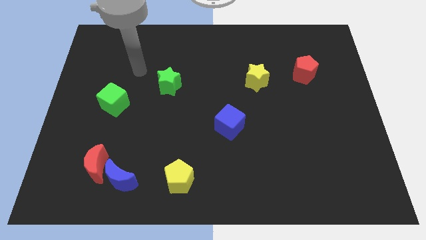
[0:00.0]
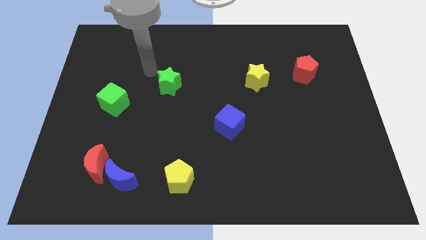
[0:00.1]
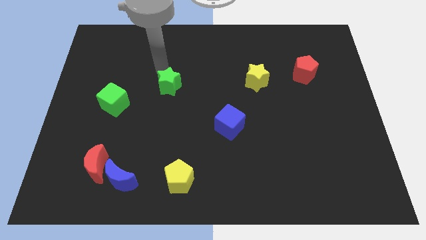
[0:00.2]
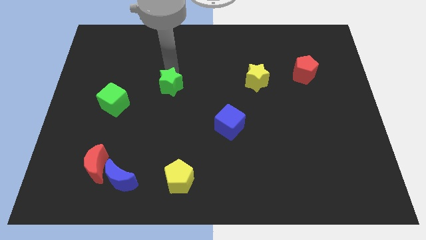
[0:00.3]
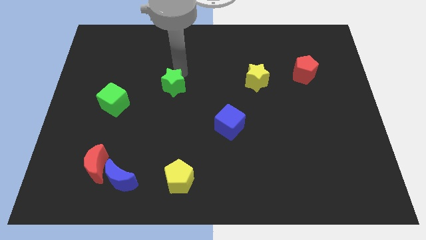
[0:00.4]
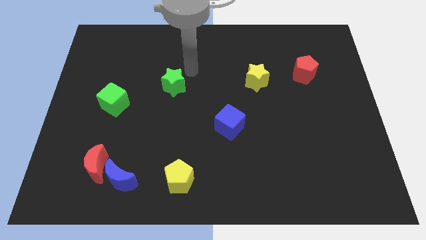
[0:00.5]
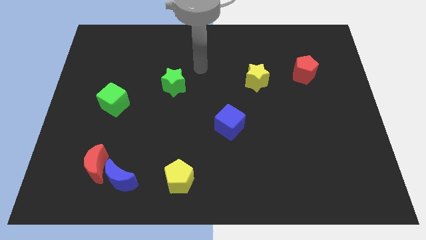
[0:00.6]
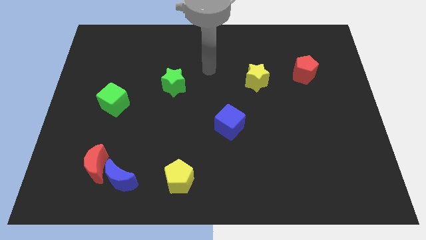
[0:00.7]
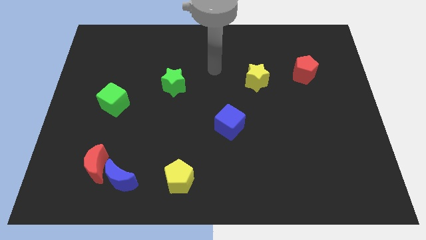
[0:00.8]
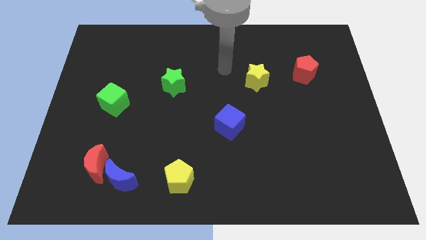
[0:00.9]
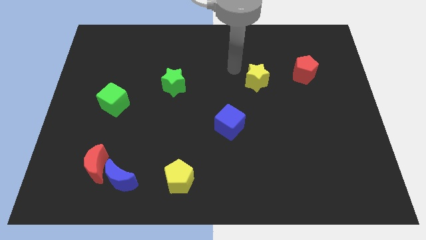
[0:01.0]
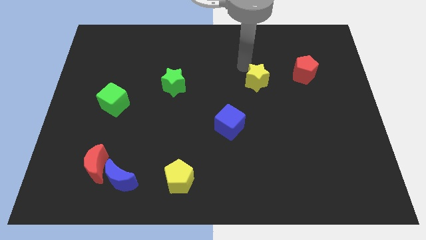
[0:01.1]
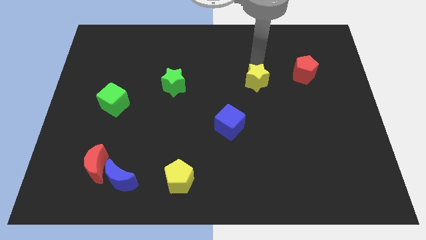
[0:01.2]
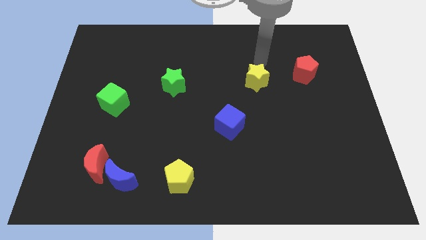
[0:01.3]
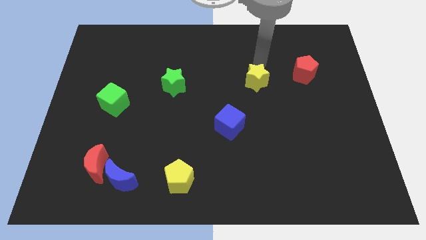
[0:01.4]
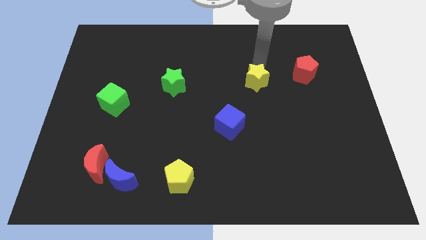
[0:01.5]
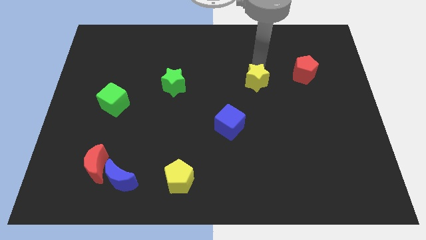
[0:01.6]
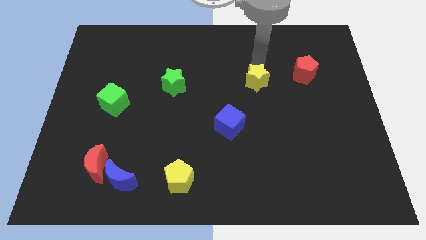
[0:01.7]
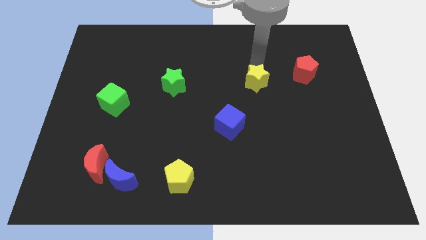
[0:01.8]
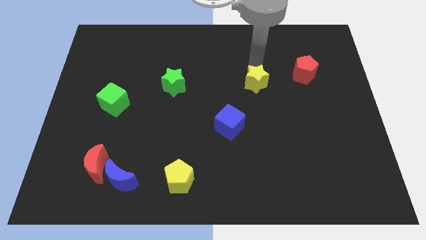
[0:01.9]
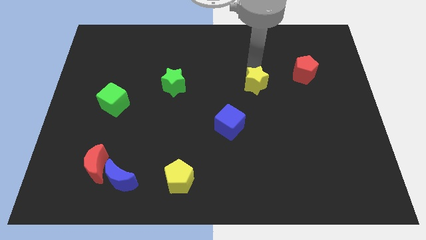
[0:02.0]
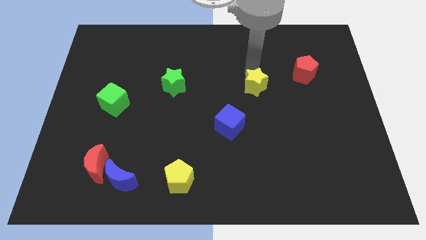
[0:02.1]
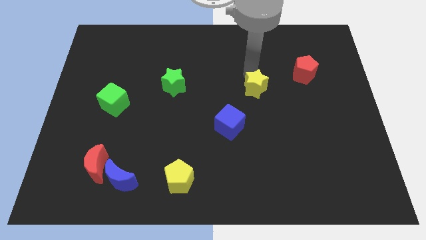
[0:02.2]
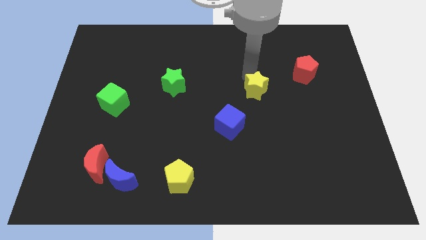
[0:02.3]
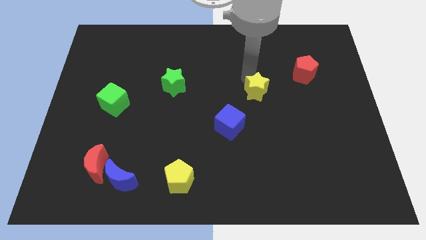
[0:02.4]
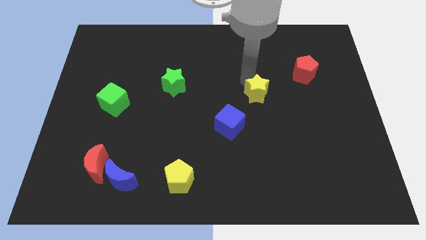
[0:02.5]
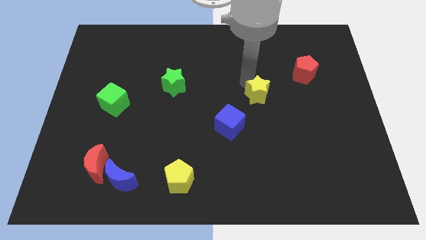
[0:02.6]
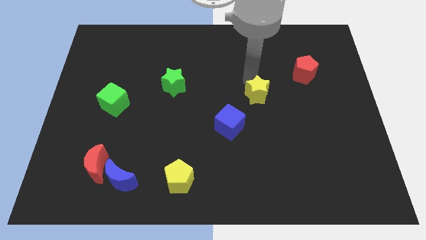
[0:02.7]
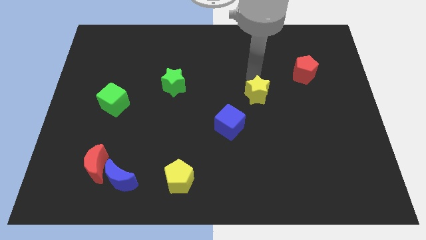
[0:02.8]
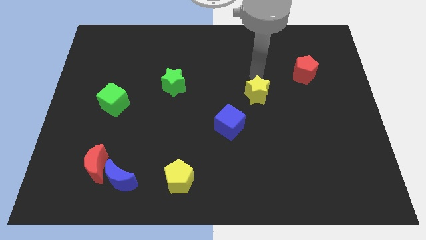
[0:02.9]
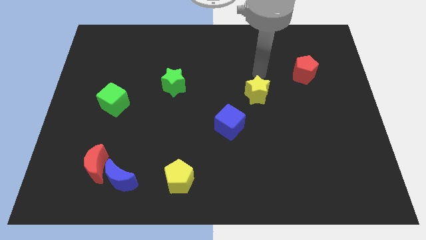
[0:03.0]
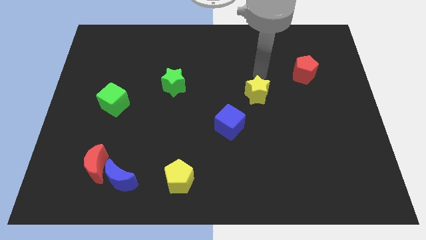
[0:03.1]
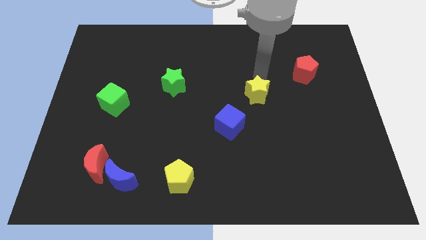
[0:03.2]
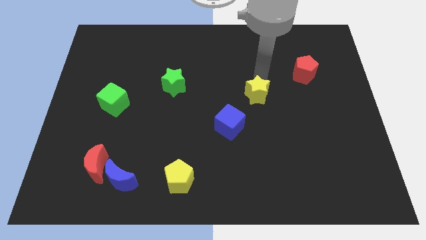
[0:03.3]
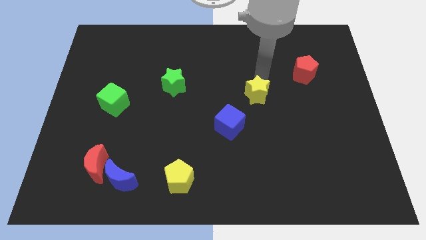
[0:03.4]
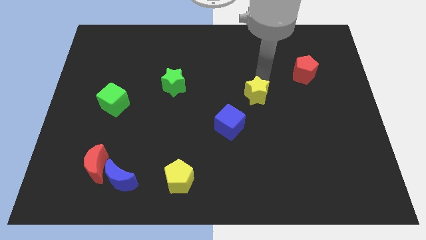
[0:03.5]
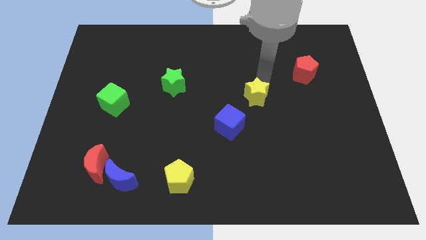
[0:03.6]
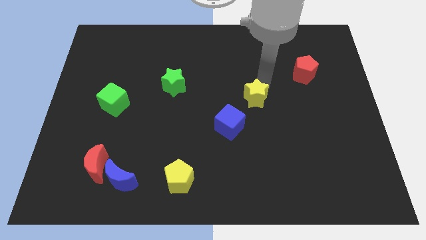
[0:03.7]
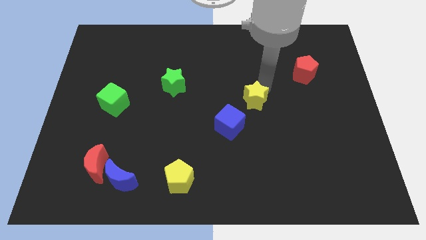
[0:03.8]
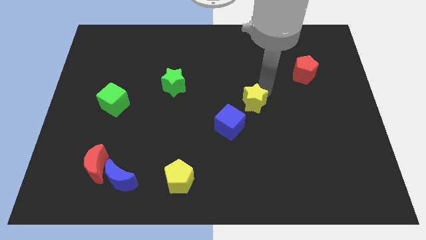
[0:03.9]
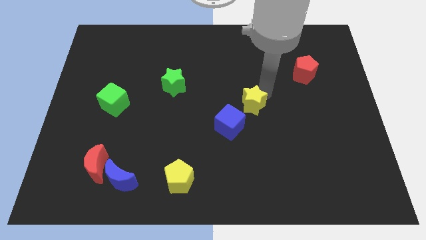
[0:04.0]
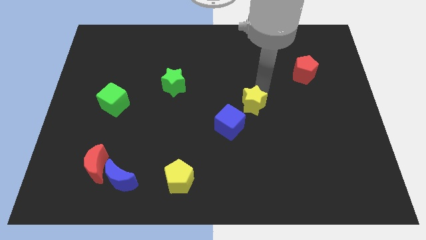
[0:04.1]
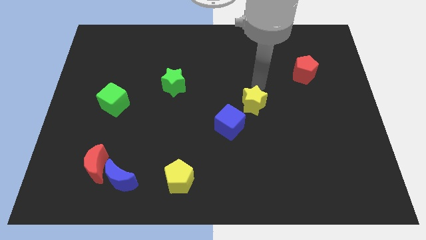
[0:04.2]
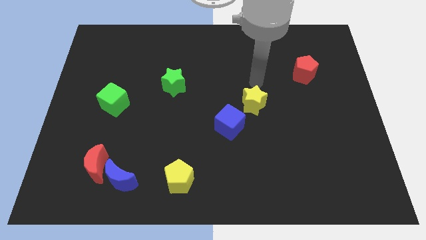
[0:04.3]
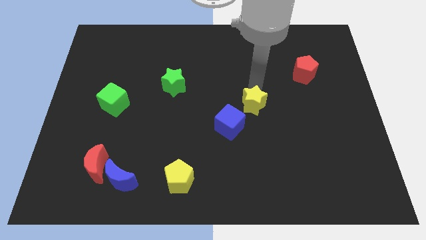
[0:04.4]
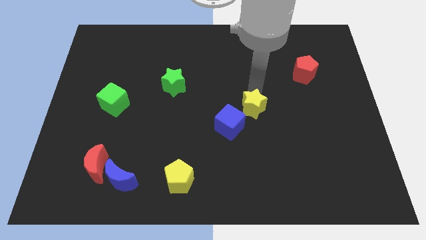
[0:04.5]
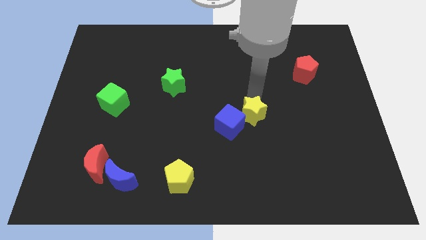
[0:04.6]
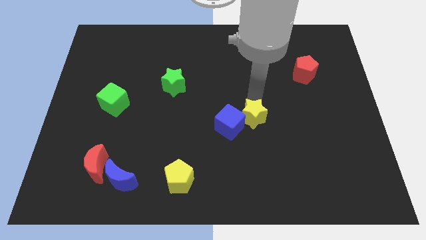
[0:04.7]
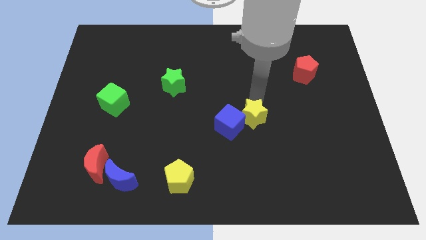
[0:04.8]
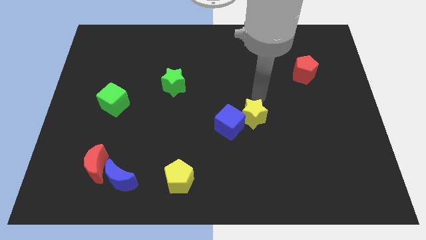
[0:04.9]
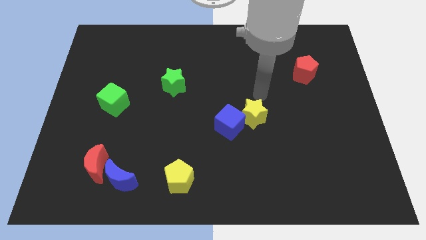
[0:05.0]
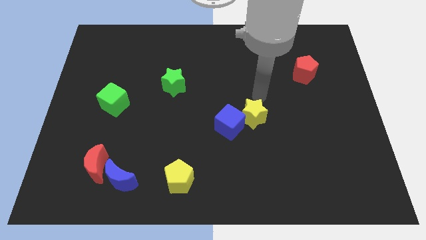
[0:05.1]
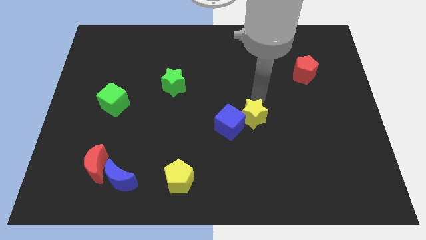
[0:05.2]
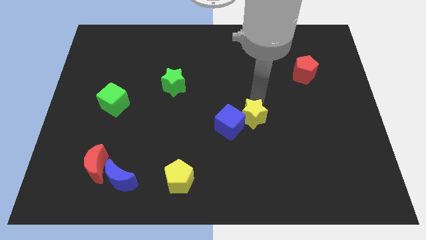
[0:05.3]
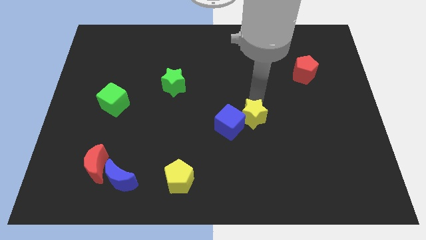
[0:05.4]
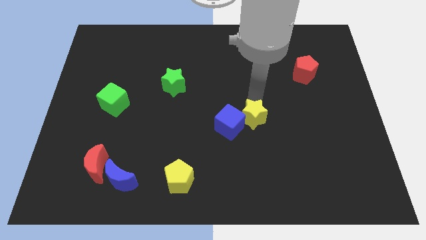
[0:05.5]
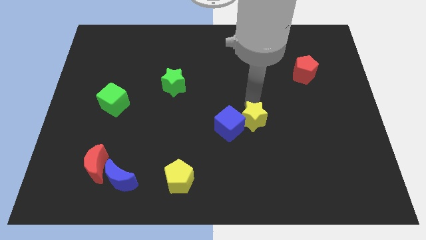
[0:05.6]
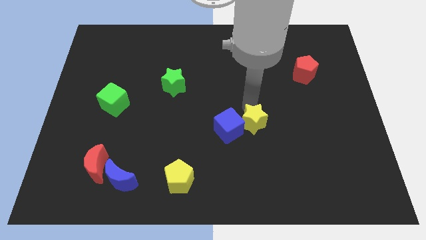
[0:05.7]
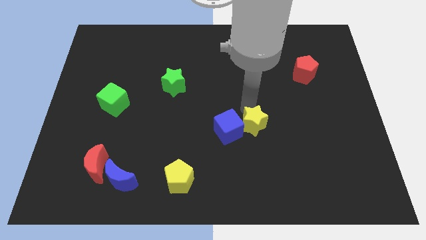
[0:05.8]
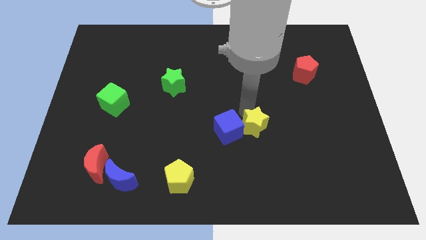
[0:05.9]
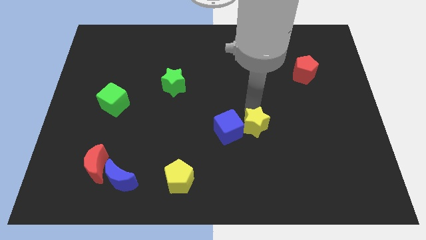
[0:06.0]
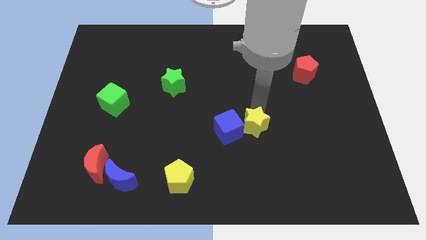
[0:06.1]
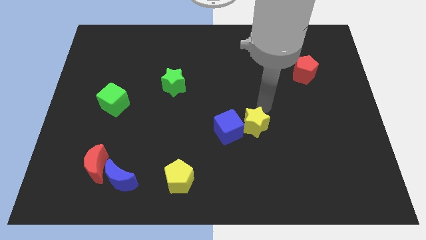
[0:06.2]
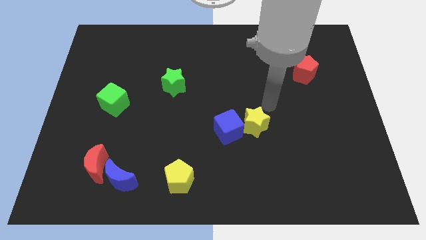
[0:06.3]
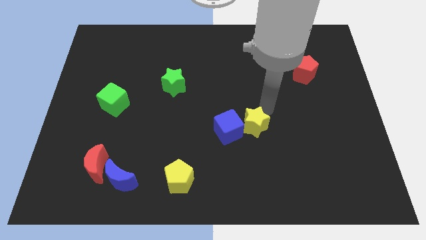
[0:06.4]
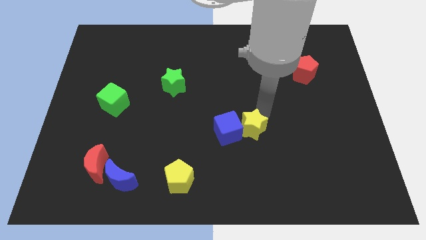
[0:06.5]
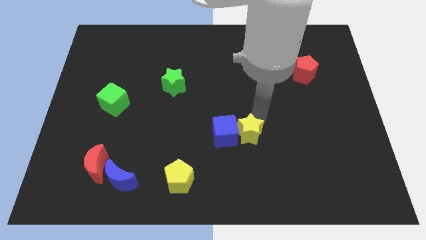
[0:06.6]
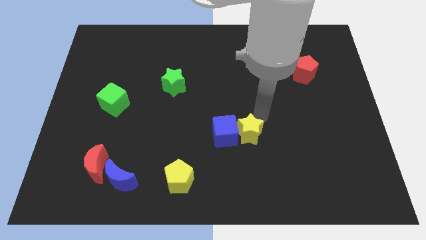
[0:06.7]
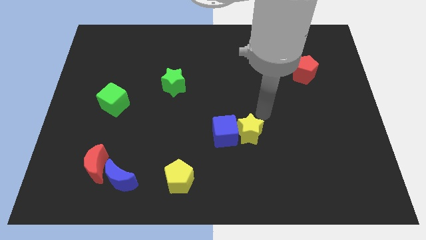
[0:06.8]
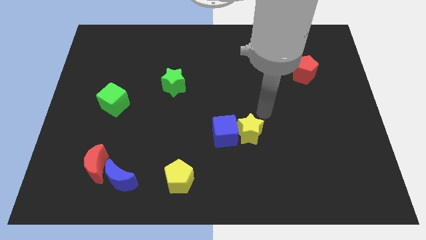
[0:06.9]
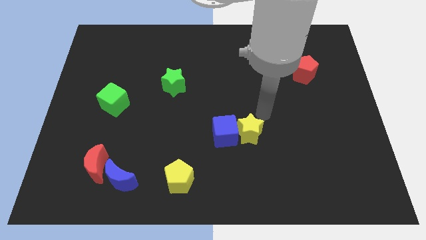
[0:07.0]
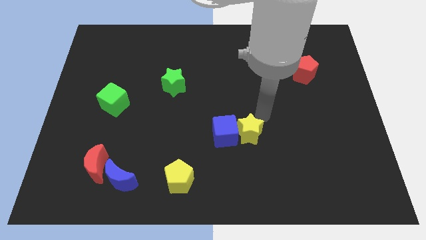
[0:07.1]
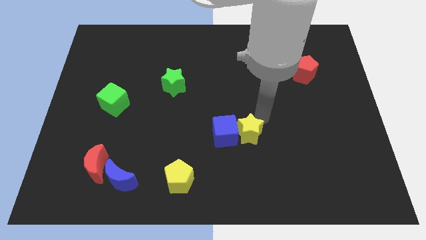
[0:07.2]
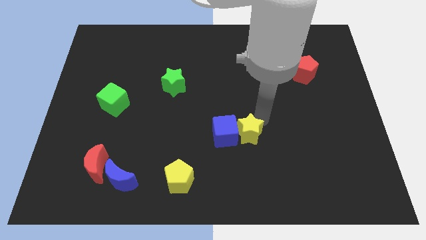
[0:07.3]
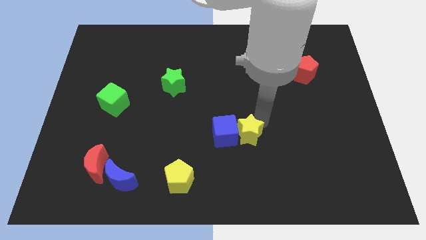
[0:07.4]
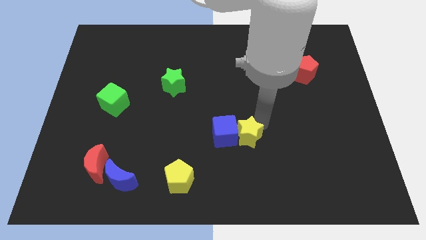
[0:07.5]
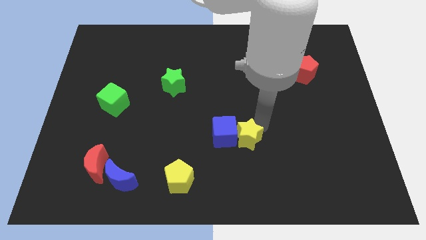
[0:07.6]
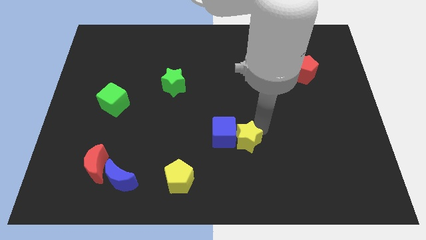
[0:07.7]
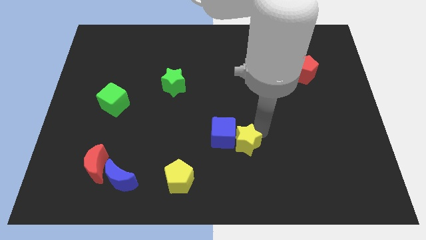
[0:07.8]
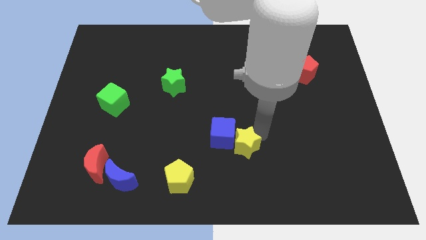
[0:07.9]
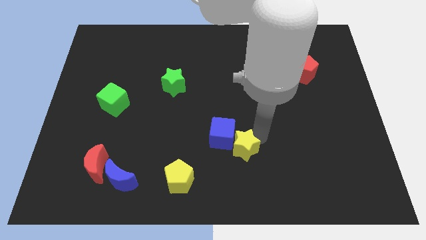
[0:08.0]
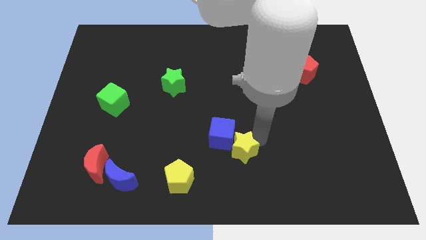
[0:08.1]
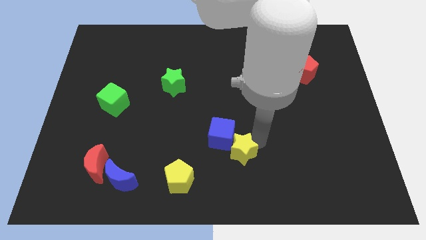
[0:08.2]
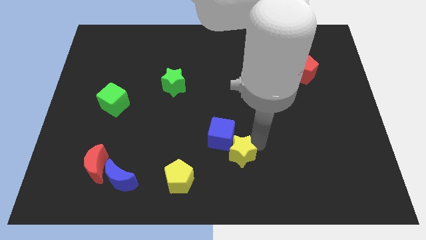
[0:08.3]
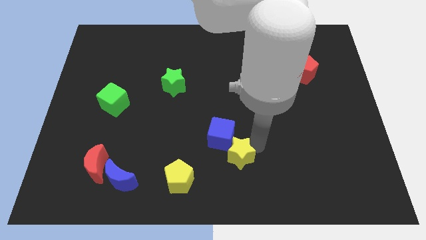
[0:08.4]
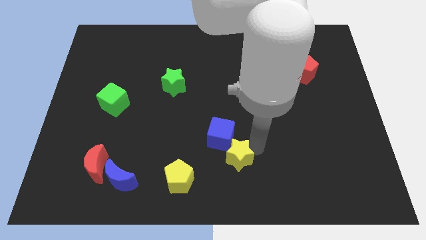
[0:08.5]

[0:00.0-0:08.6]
move the yellow star to the bottom
